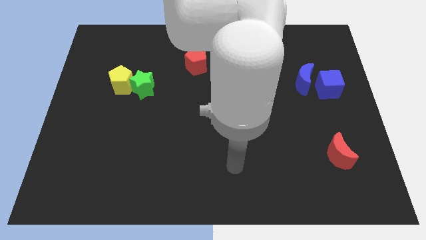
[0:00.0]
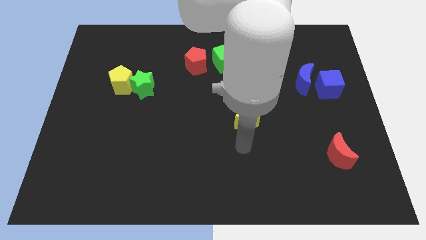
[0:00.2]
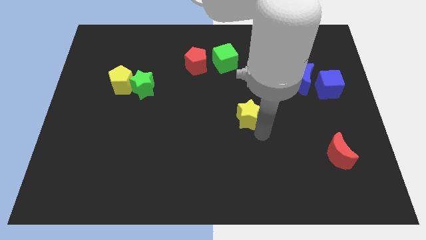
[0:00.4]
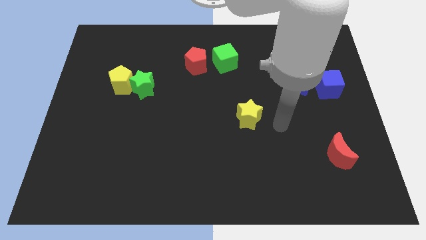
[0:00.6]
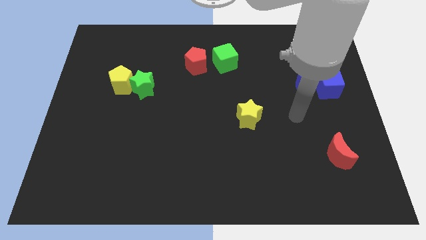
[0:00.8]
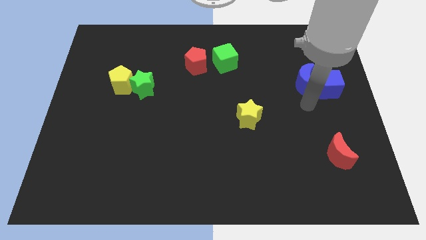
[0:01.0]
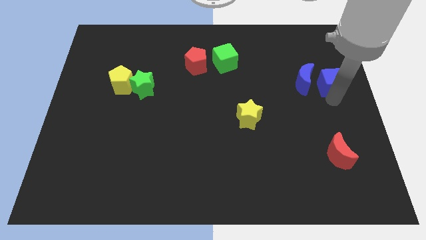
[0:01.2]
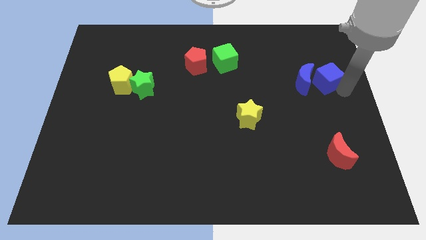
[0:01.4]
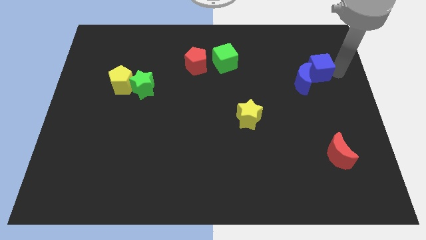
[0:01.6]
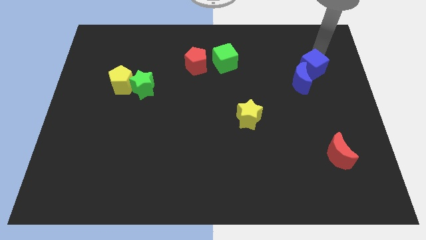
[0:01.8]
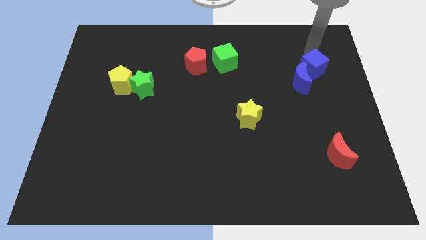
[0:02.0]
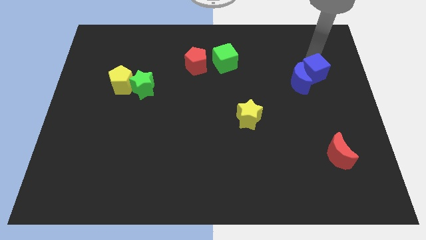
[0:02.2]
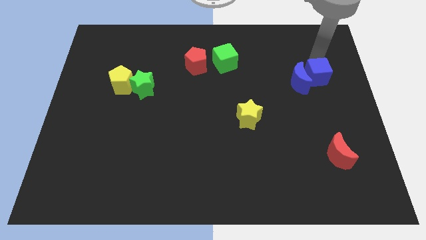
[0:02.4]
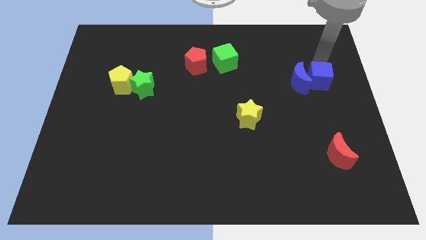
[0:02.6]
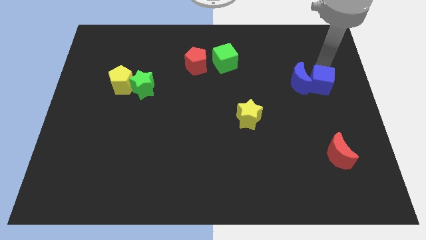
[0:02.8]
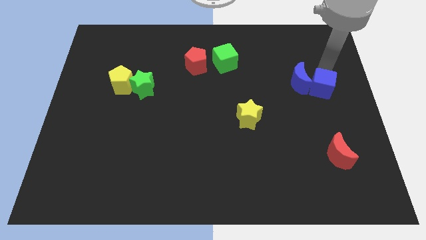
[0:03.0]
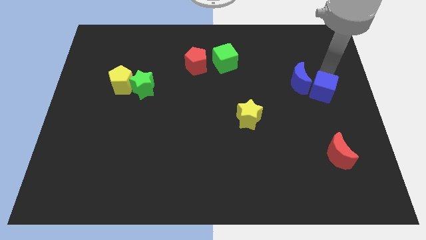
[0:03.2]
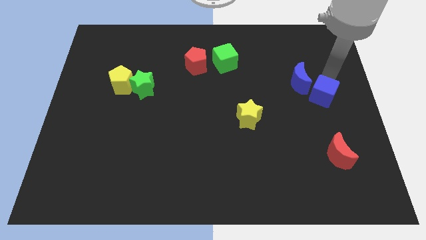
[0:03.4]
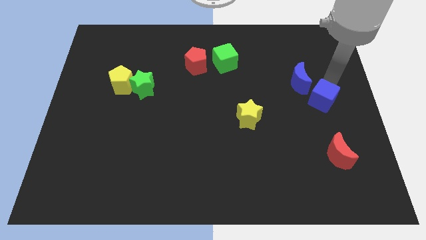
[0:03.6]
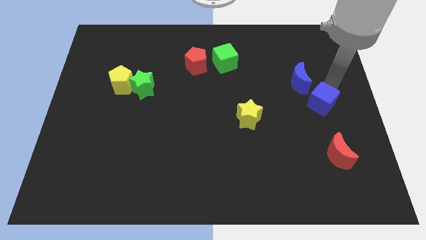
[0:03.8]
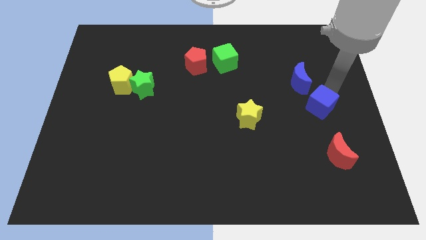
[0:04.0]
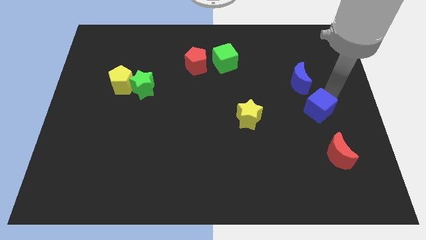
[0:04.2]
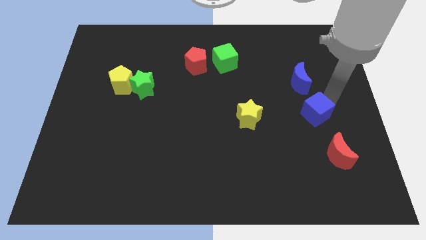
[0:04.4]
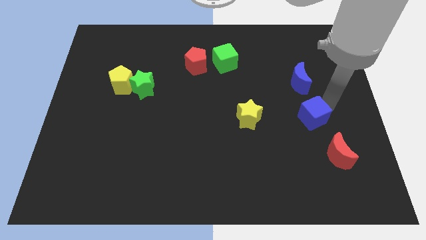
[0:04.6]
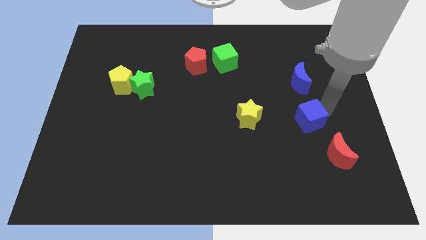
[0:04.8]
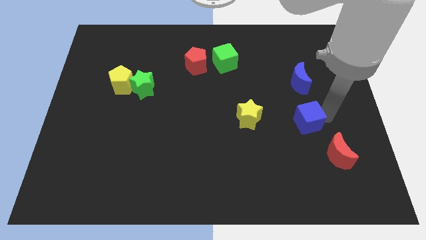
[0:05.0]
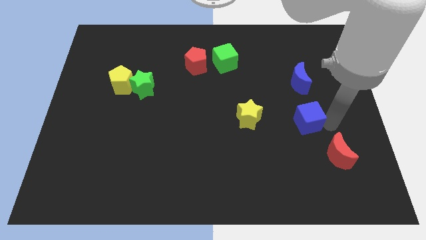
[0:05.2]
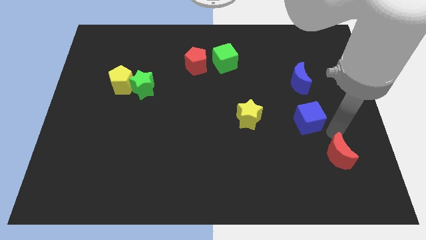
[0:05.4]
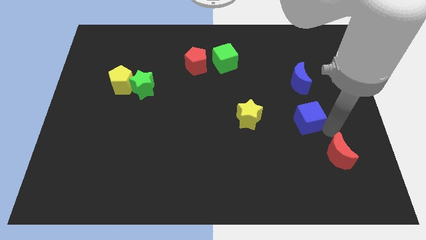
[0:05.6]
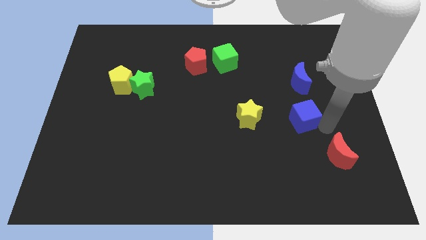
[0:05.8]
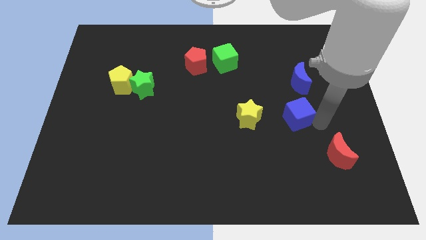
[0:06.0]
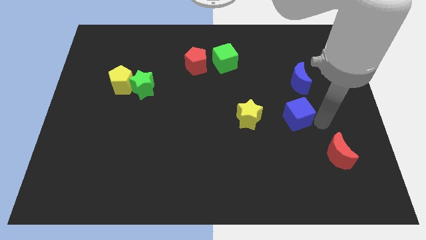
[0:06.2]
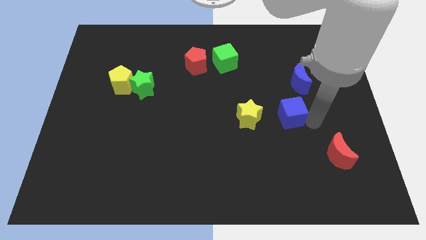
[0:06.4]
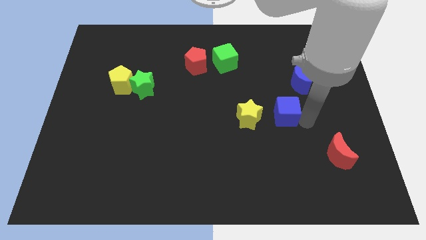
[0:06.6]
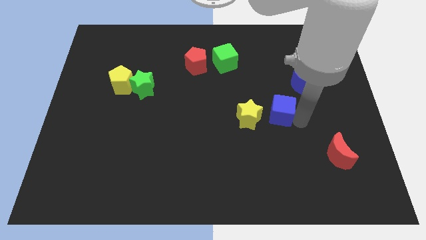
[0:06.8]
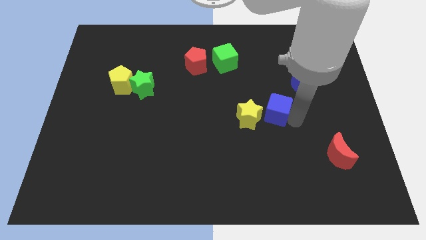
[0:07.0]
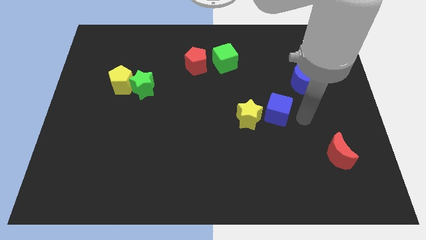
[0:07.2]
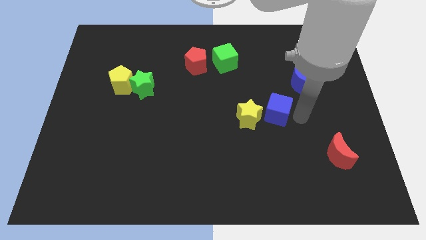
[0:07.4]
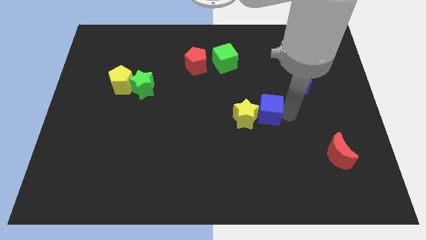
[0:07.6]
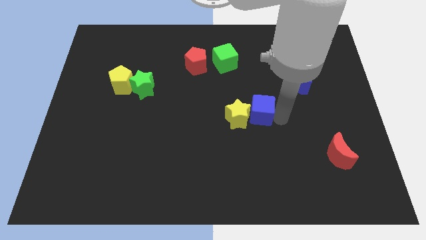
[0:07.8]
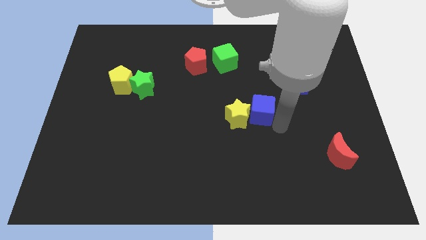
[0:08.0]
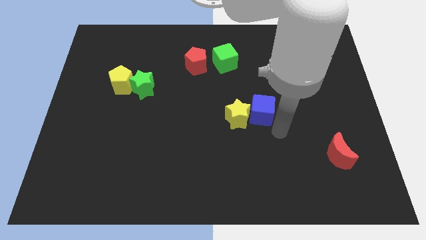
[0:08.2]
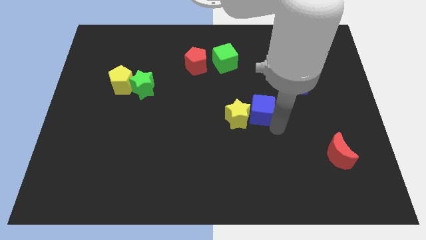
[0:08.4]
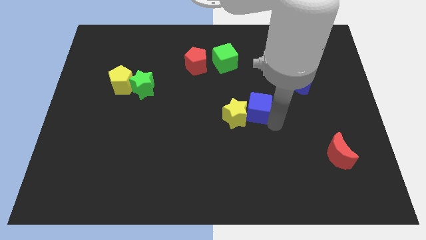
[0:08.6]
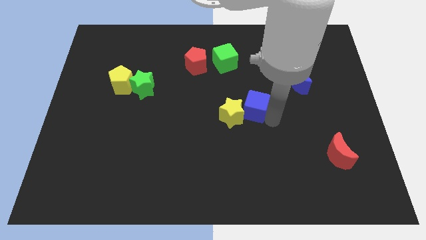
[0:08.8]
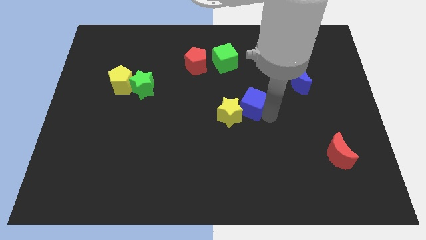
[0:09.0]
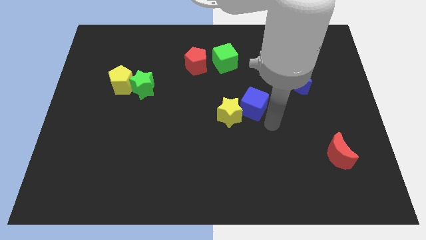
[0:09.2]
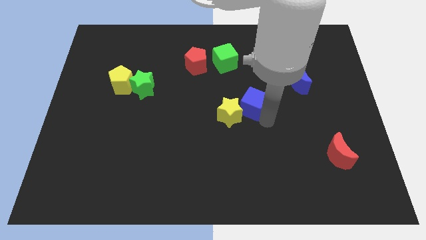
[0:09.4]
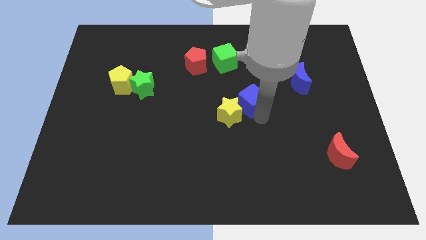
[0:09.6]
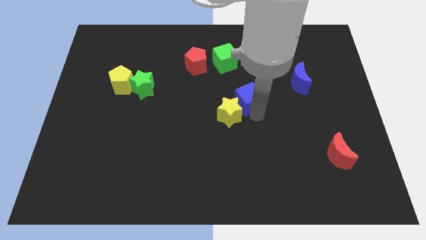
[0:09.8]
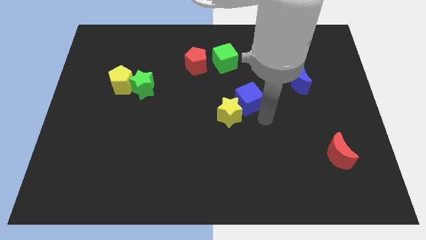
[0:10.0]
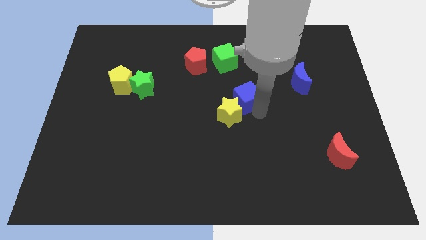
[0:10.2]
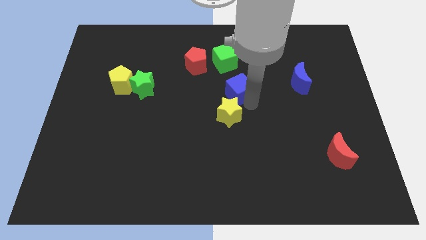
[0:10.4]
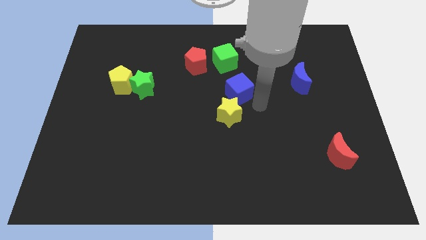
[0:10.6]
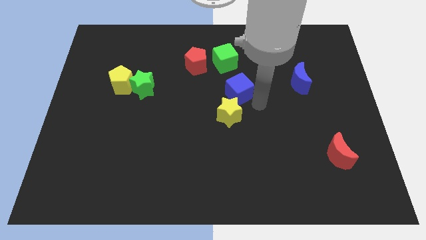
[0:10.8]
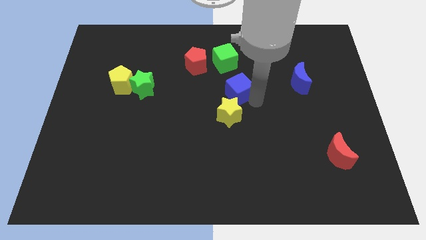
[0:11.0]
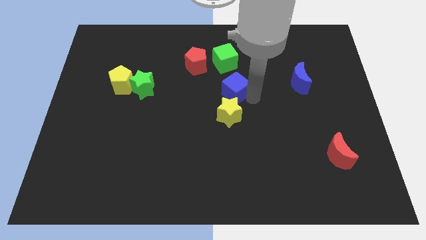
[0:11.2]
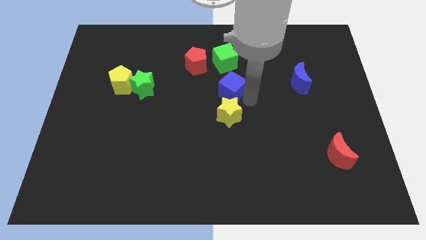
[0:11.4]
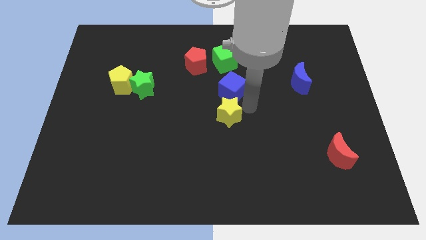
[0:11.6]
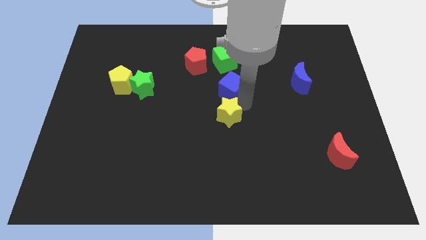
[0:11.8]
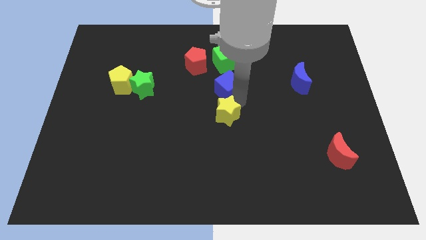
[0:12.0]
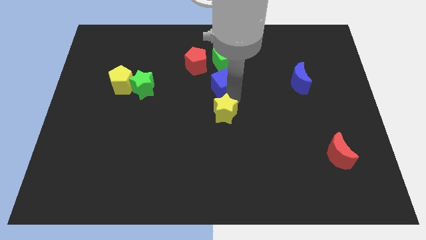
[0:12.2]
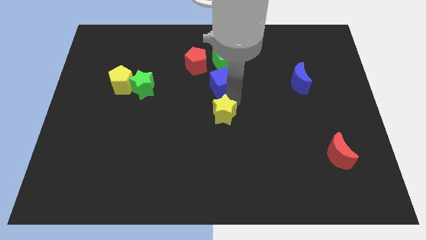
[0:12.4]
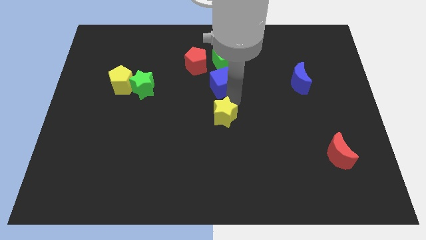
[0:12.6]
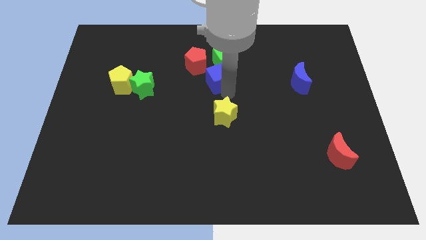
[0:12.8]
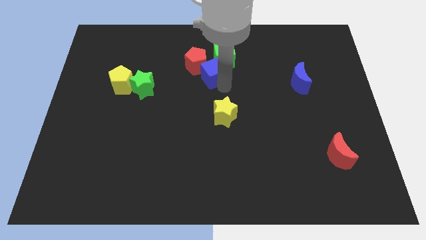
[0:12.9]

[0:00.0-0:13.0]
move the blue cube close to the red pentagon

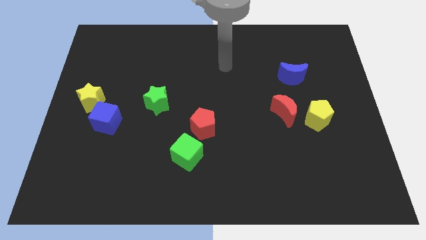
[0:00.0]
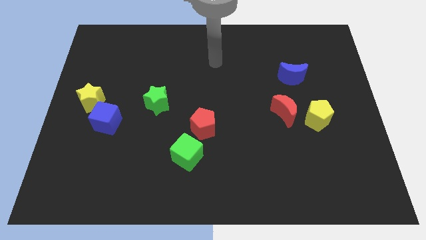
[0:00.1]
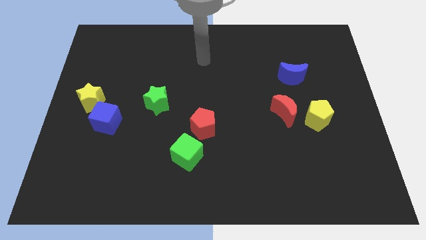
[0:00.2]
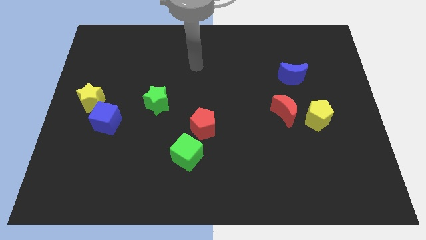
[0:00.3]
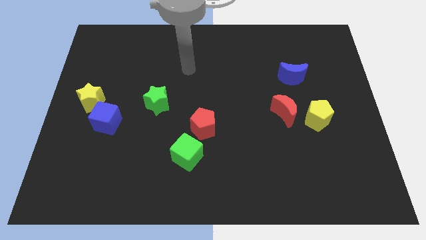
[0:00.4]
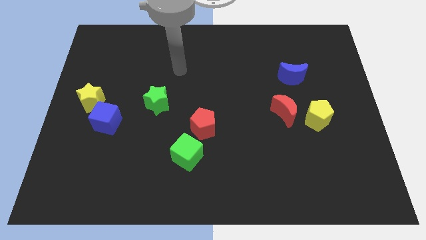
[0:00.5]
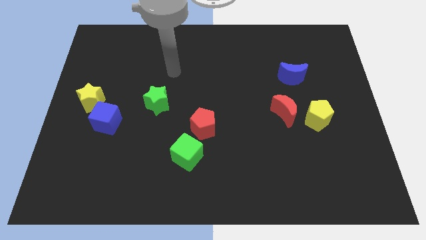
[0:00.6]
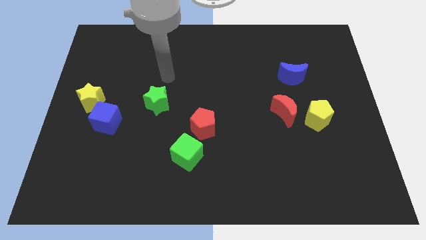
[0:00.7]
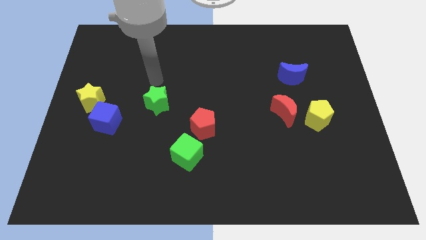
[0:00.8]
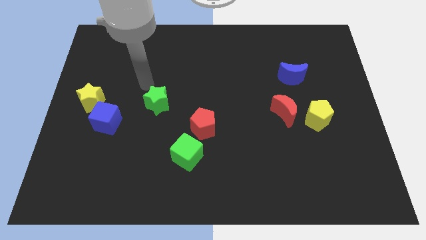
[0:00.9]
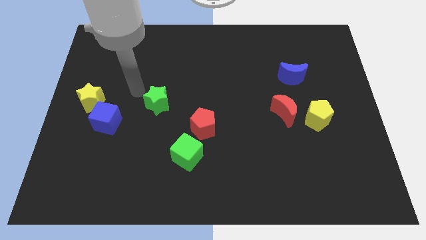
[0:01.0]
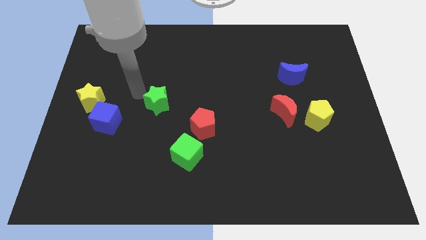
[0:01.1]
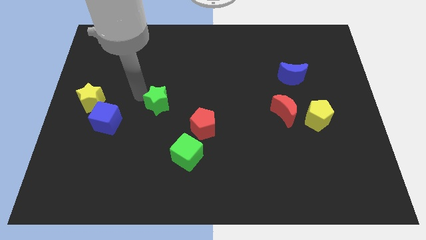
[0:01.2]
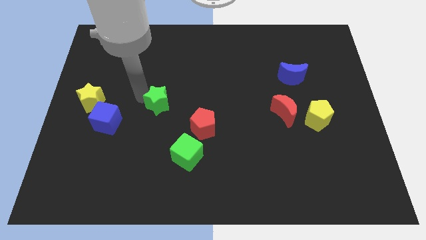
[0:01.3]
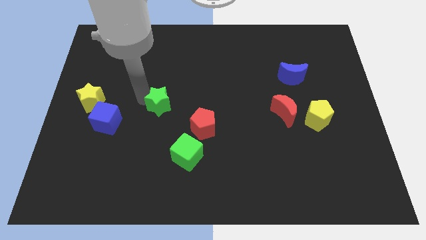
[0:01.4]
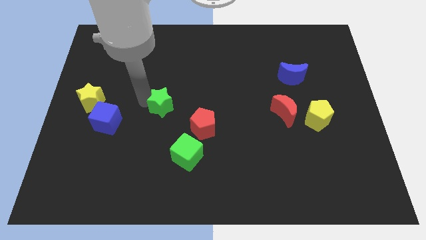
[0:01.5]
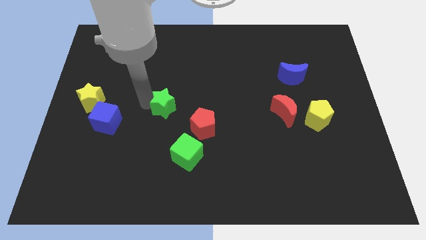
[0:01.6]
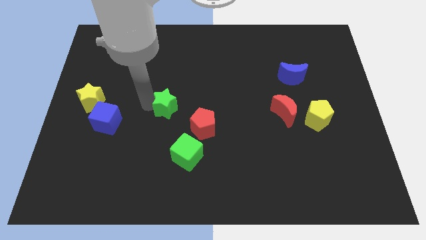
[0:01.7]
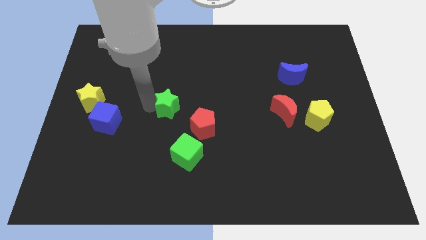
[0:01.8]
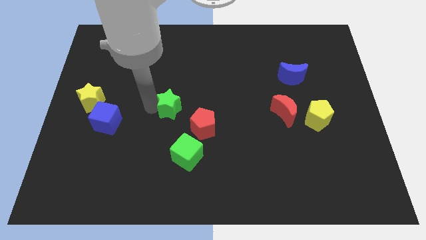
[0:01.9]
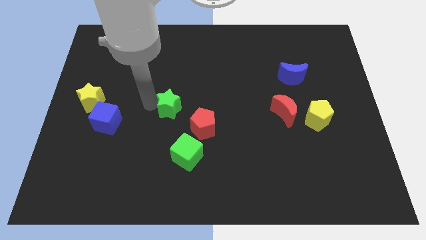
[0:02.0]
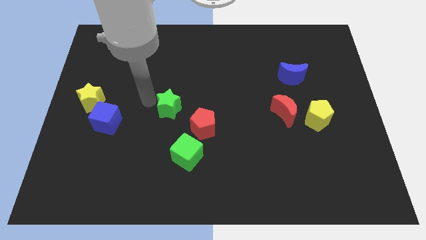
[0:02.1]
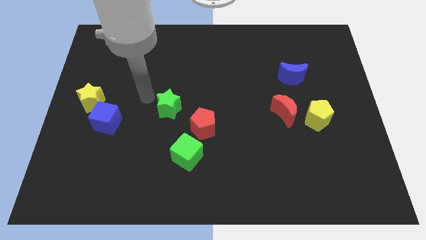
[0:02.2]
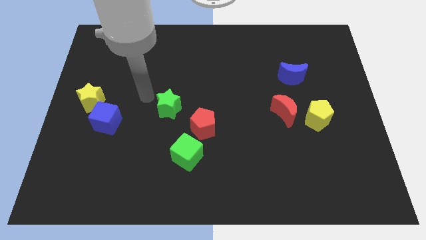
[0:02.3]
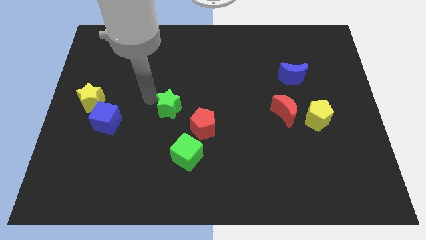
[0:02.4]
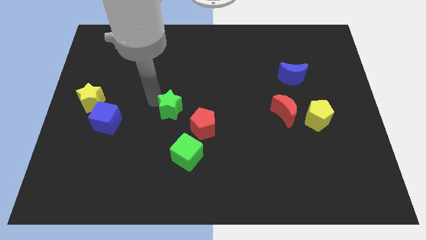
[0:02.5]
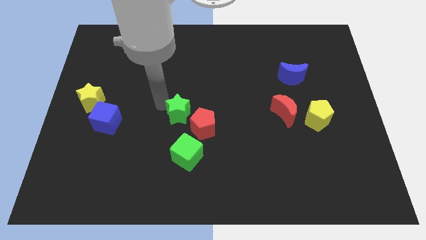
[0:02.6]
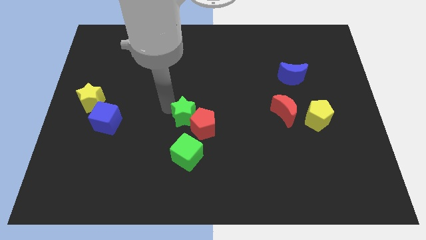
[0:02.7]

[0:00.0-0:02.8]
slide the green star close to the red pentagon
